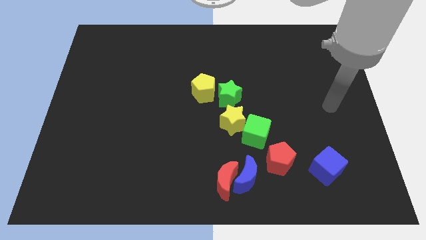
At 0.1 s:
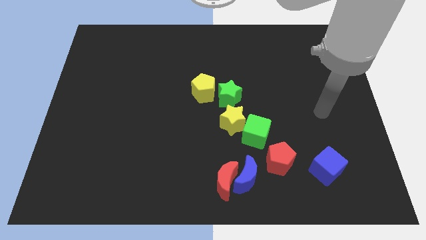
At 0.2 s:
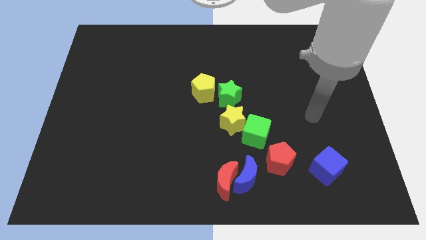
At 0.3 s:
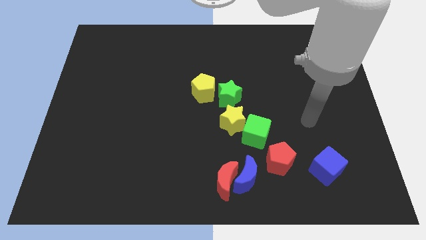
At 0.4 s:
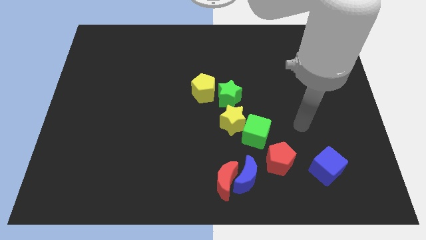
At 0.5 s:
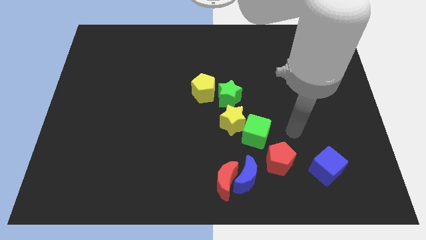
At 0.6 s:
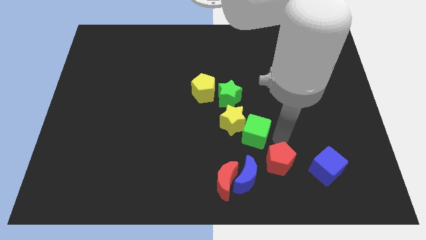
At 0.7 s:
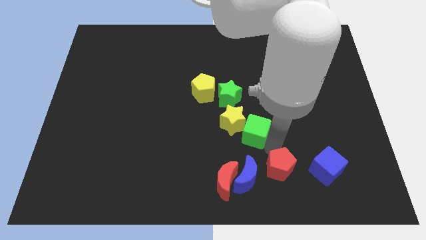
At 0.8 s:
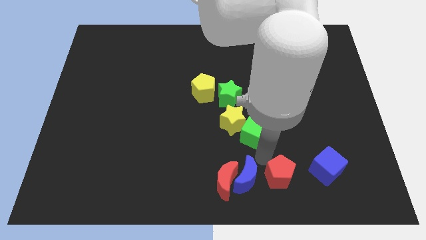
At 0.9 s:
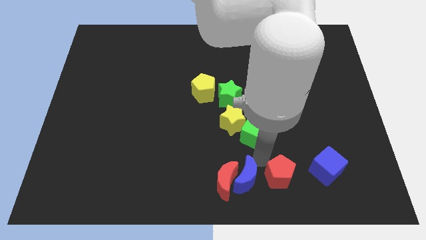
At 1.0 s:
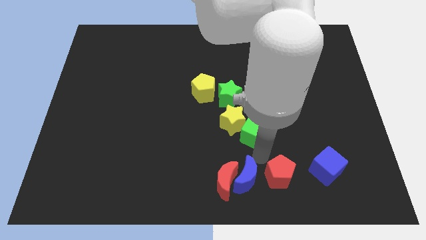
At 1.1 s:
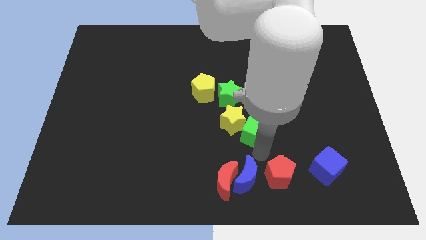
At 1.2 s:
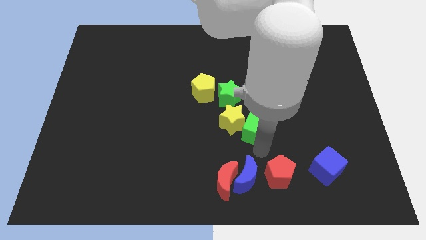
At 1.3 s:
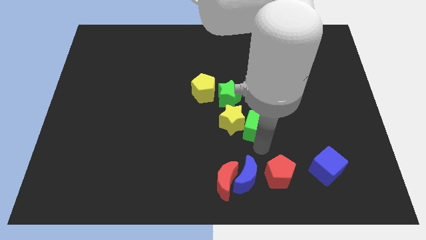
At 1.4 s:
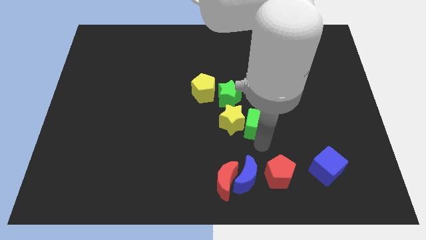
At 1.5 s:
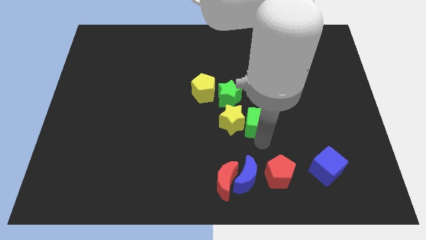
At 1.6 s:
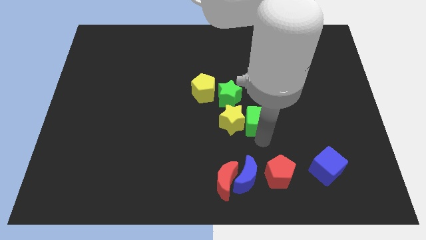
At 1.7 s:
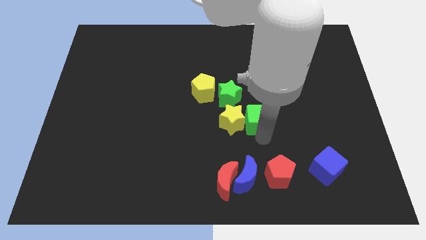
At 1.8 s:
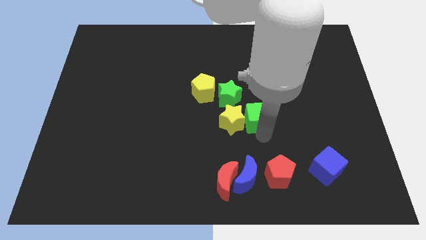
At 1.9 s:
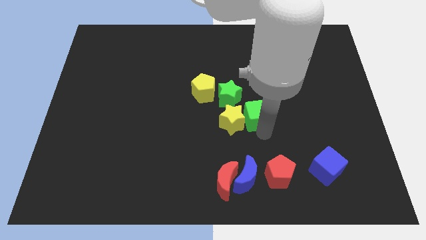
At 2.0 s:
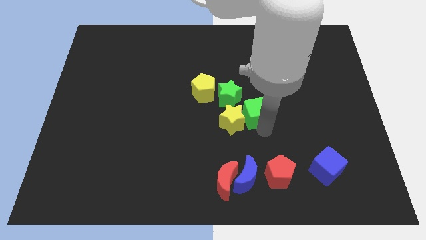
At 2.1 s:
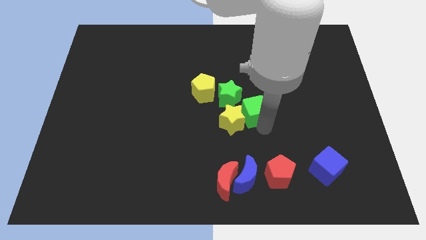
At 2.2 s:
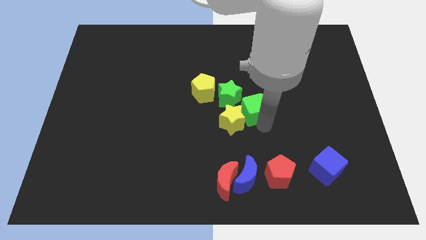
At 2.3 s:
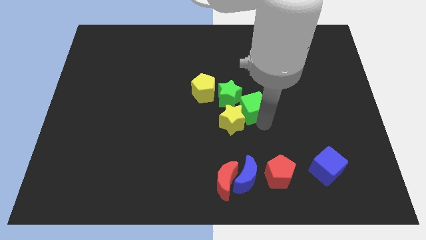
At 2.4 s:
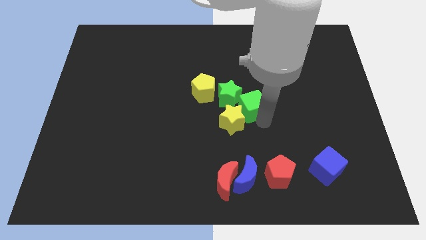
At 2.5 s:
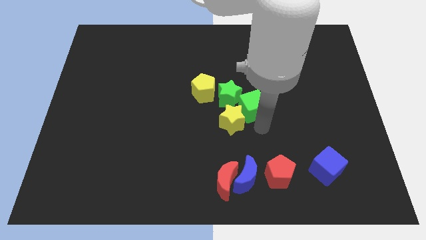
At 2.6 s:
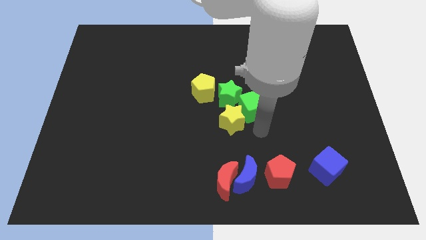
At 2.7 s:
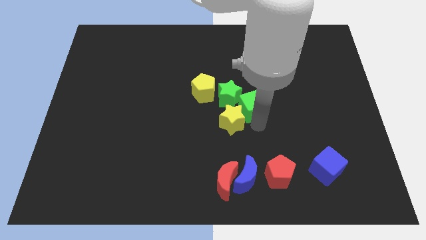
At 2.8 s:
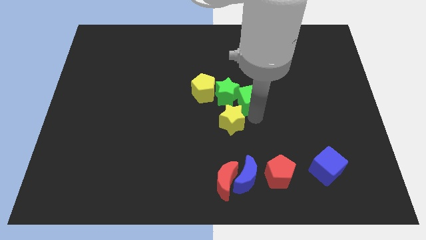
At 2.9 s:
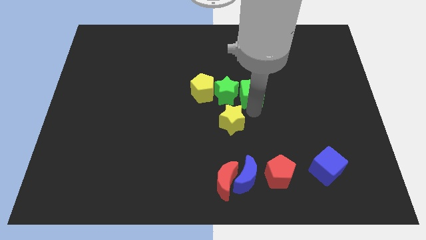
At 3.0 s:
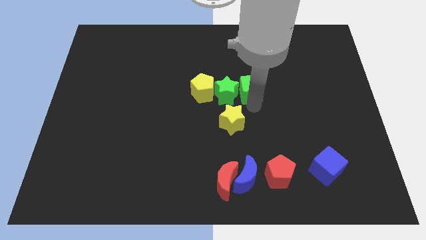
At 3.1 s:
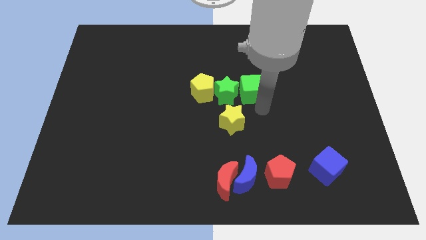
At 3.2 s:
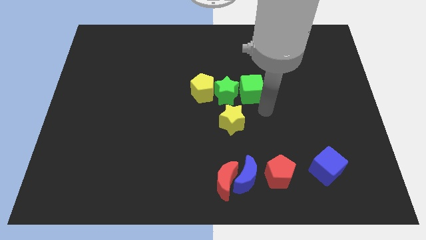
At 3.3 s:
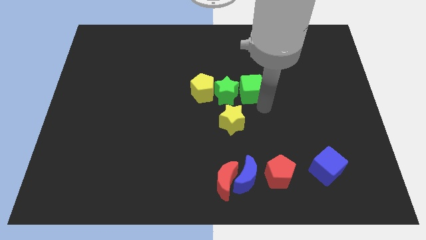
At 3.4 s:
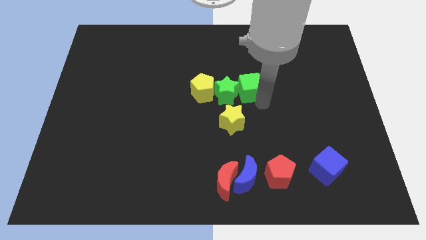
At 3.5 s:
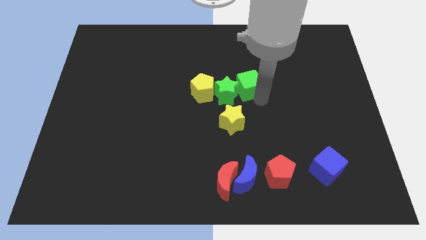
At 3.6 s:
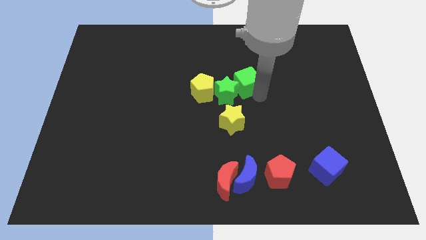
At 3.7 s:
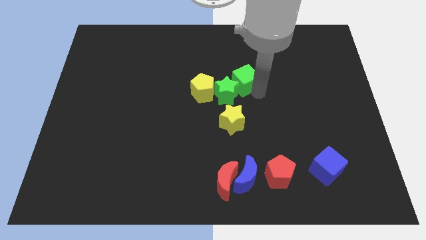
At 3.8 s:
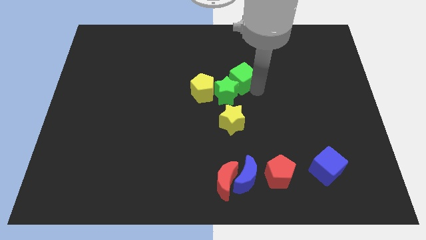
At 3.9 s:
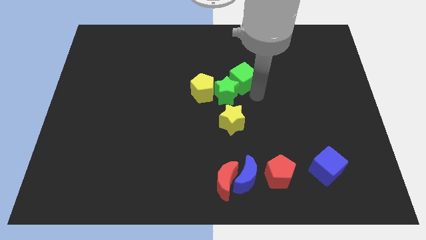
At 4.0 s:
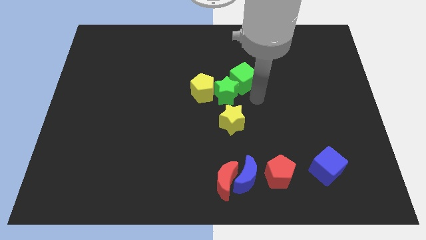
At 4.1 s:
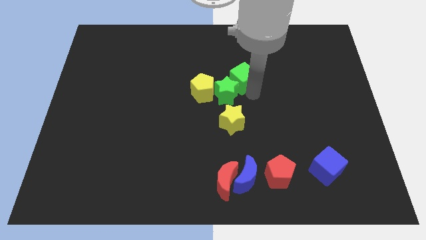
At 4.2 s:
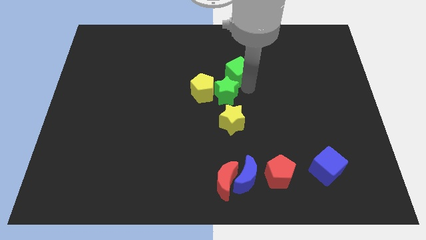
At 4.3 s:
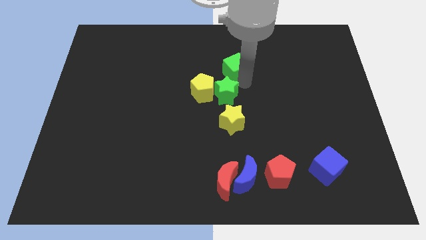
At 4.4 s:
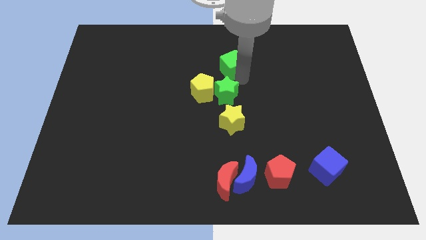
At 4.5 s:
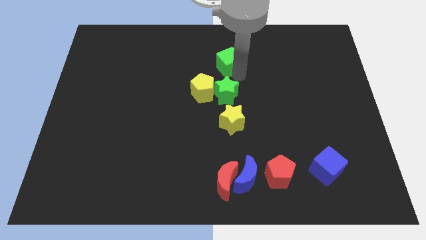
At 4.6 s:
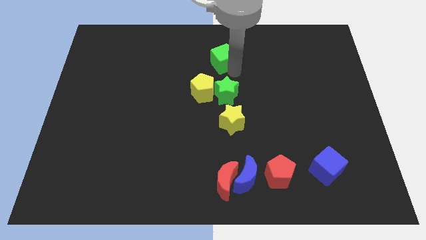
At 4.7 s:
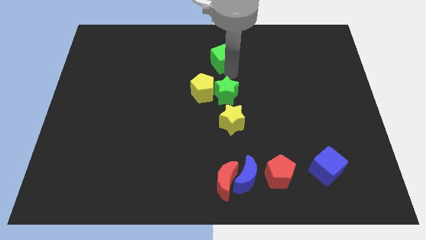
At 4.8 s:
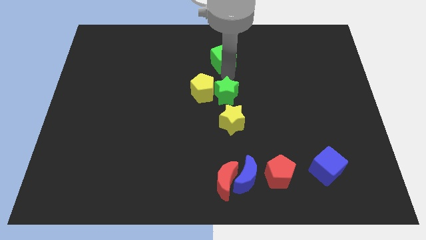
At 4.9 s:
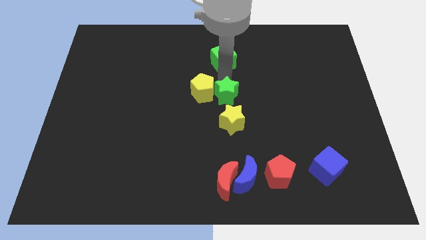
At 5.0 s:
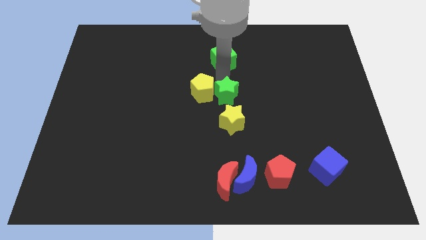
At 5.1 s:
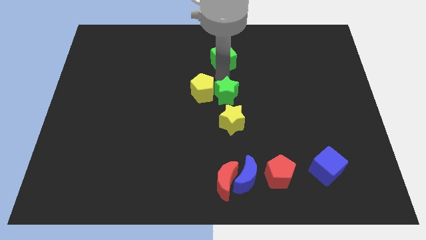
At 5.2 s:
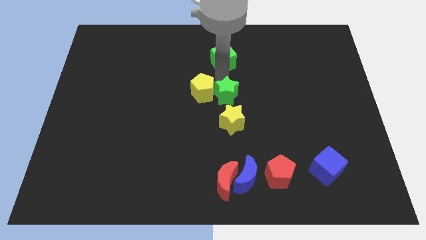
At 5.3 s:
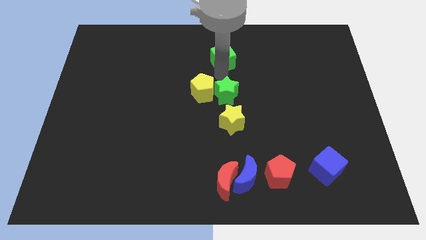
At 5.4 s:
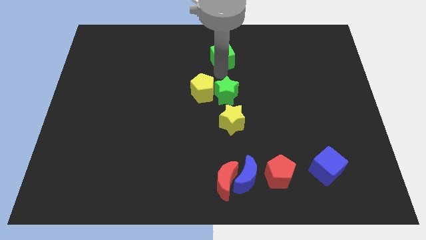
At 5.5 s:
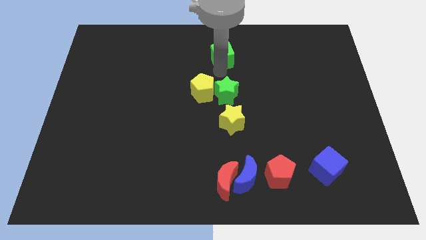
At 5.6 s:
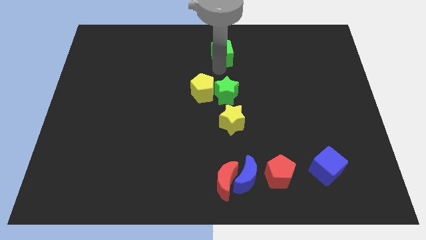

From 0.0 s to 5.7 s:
push the green cube to the towards your base
